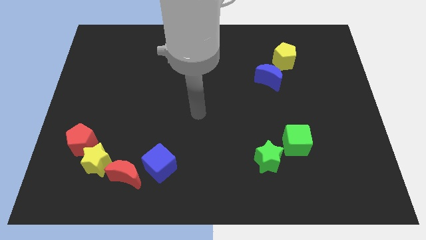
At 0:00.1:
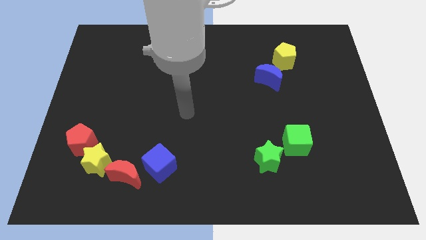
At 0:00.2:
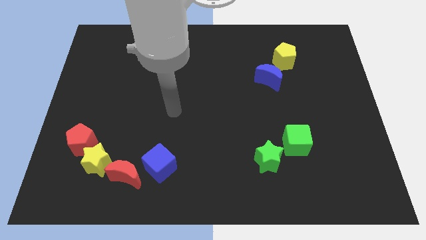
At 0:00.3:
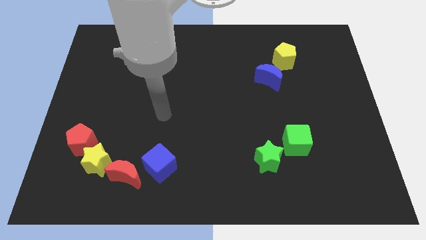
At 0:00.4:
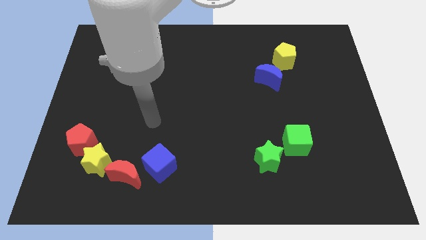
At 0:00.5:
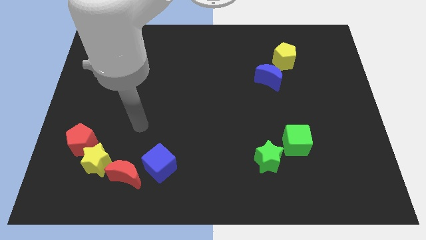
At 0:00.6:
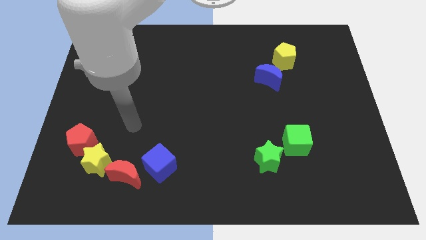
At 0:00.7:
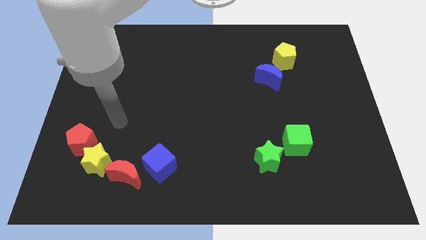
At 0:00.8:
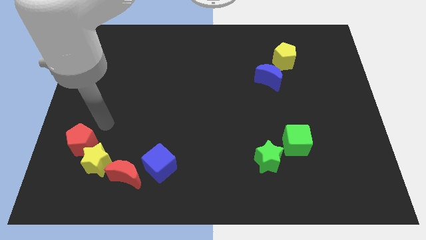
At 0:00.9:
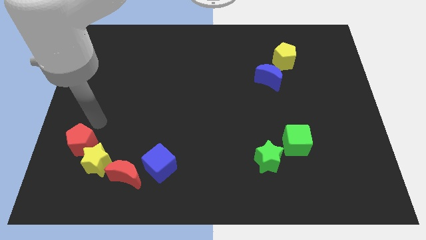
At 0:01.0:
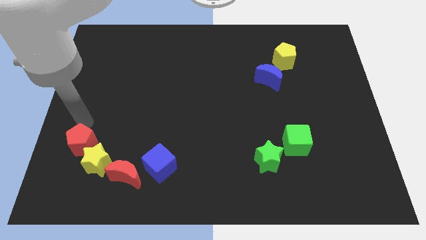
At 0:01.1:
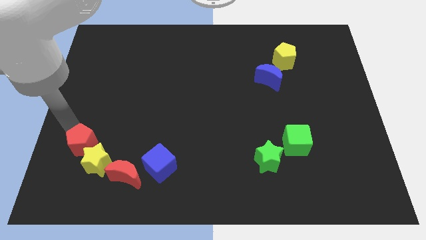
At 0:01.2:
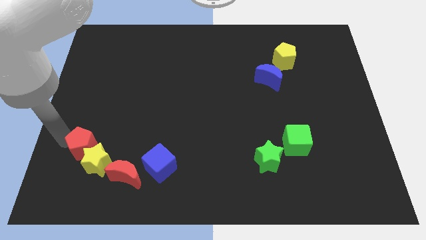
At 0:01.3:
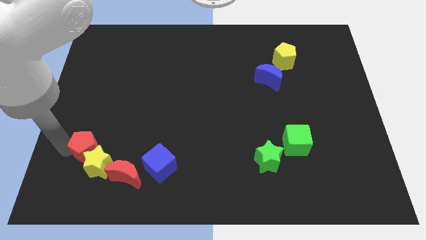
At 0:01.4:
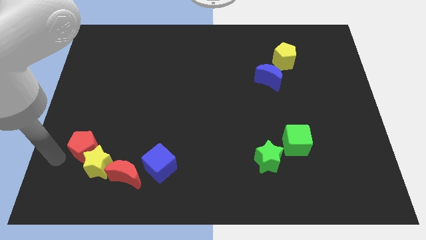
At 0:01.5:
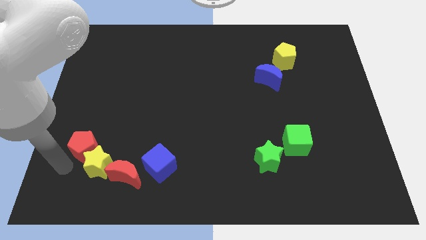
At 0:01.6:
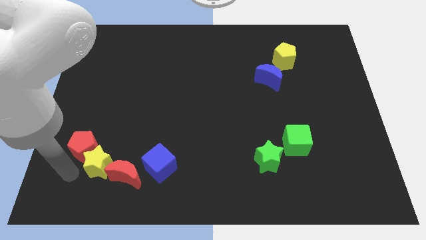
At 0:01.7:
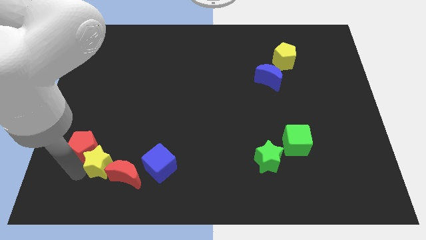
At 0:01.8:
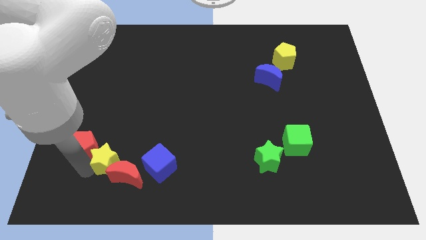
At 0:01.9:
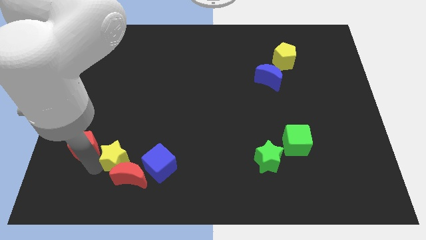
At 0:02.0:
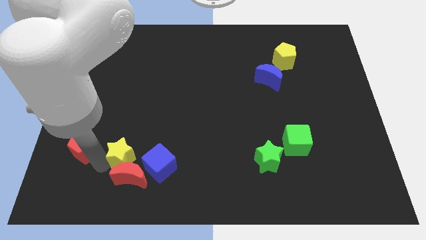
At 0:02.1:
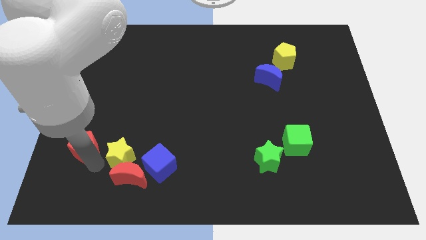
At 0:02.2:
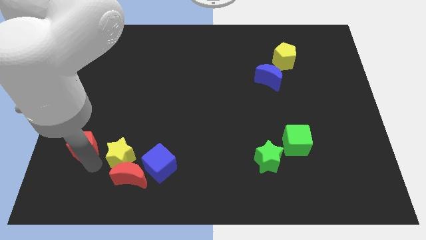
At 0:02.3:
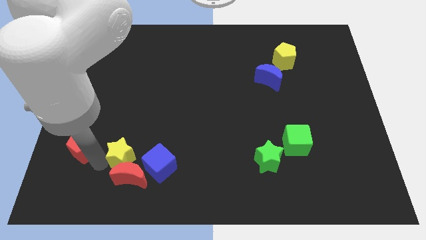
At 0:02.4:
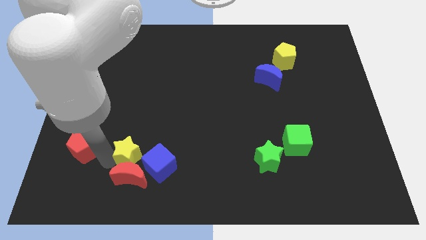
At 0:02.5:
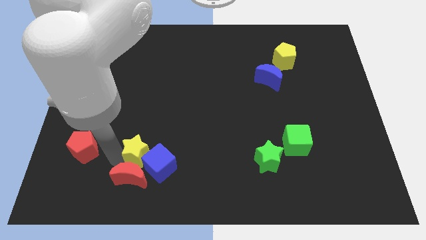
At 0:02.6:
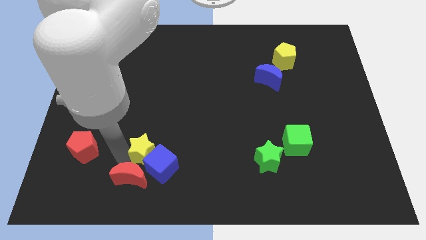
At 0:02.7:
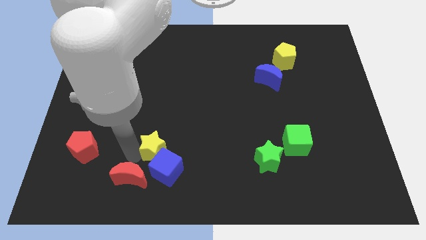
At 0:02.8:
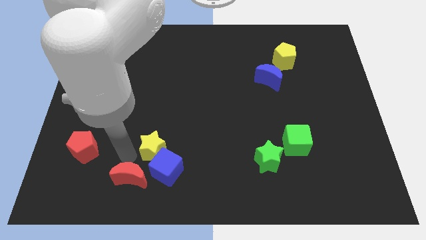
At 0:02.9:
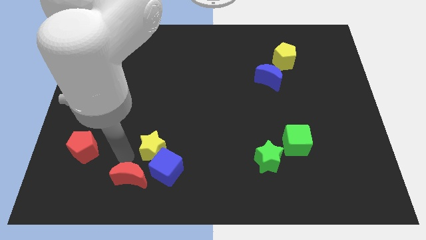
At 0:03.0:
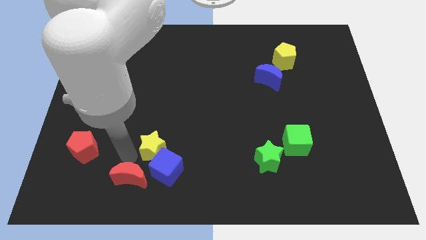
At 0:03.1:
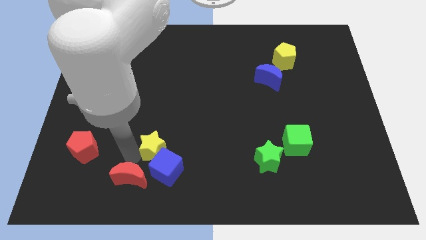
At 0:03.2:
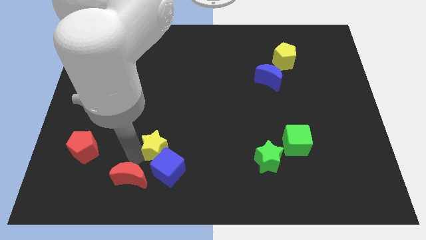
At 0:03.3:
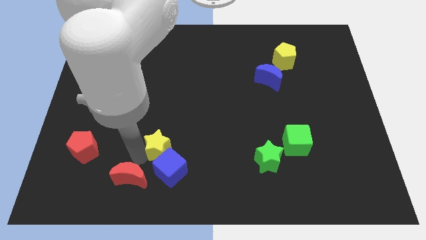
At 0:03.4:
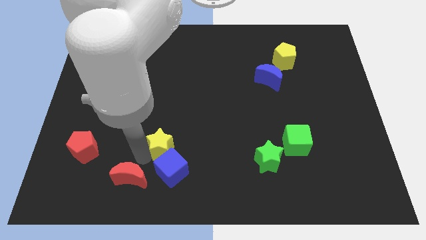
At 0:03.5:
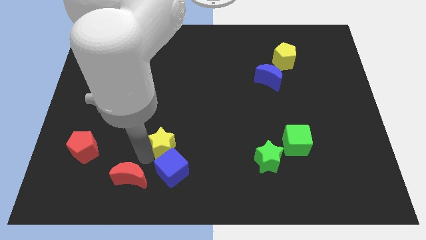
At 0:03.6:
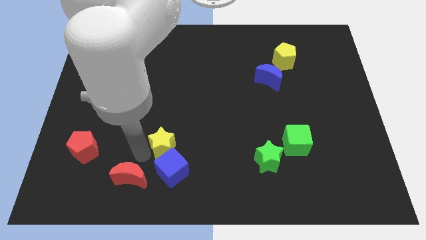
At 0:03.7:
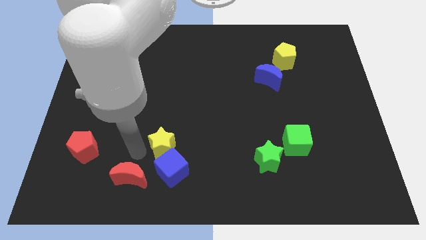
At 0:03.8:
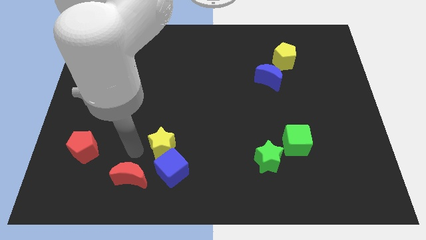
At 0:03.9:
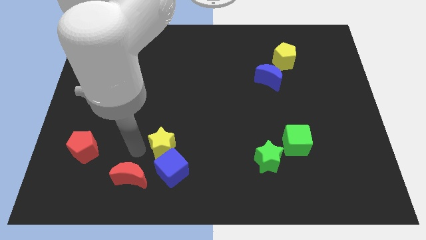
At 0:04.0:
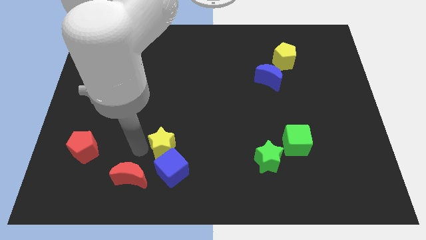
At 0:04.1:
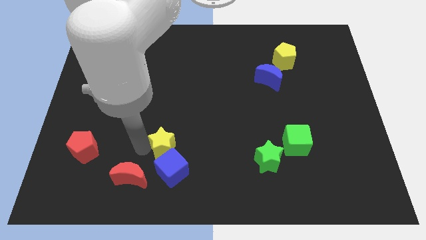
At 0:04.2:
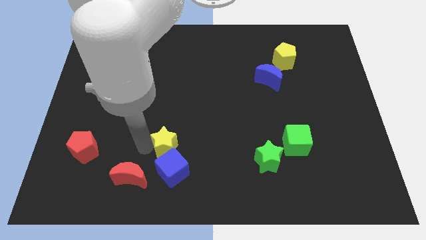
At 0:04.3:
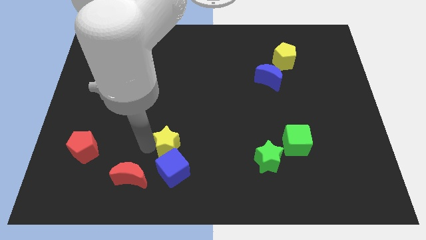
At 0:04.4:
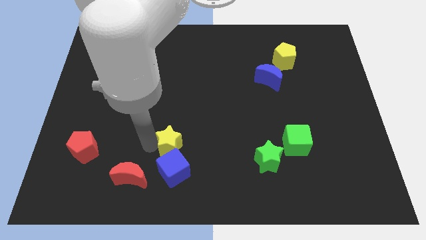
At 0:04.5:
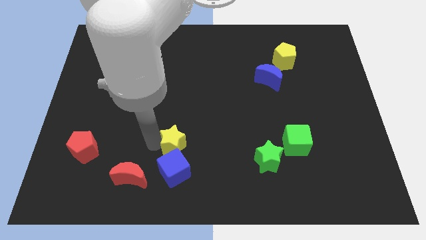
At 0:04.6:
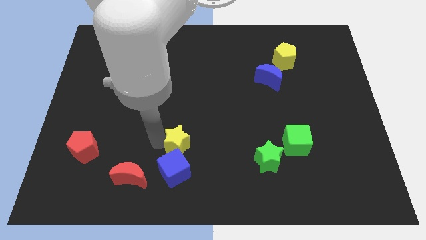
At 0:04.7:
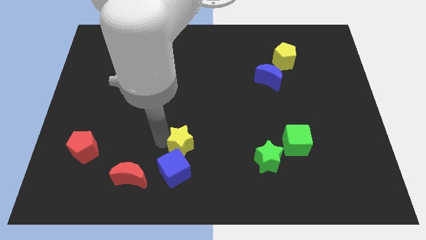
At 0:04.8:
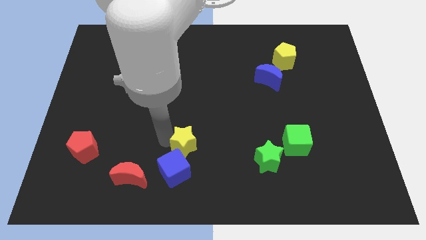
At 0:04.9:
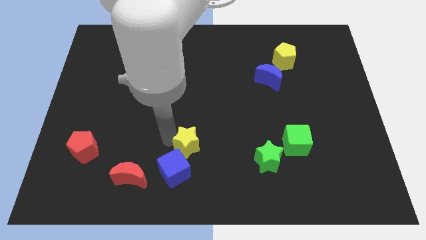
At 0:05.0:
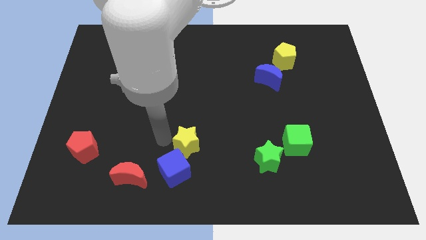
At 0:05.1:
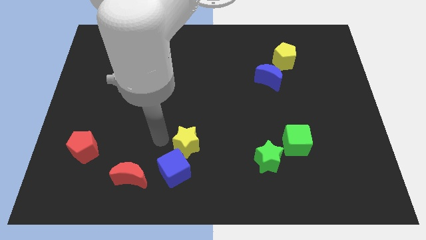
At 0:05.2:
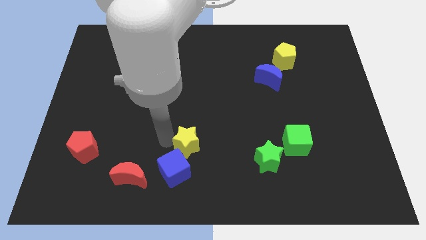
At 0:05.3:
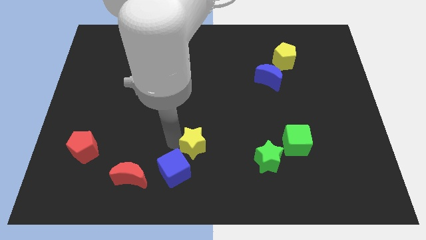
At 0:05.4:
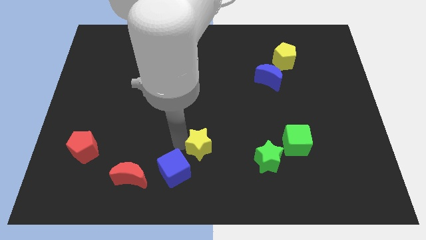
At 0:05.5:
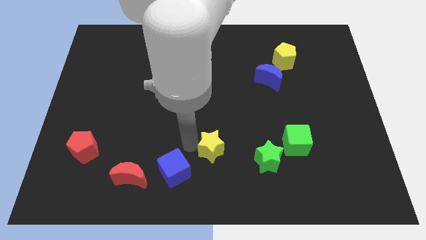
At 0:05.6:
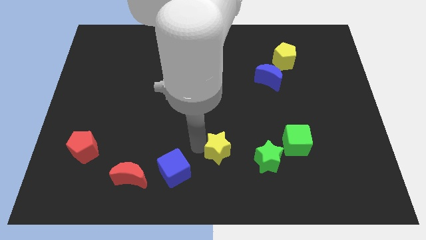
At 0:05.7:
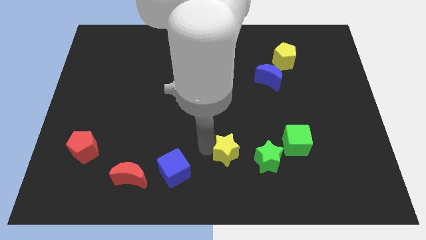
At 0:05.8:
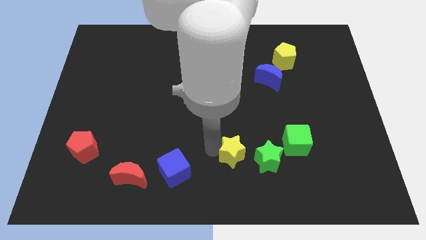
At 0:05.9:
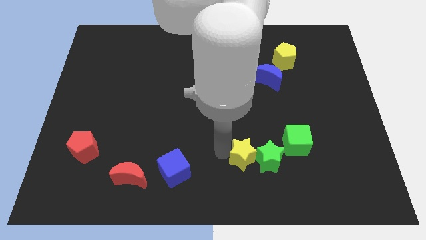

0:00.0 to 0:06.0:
slide the yellow star close to the green star

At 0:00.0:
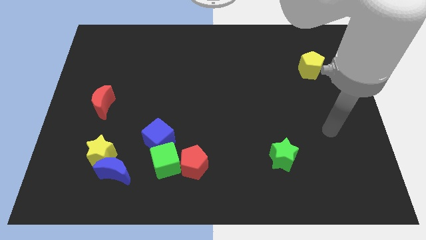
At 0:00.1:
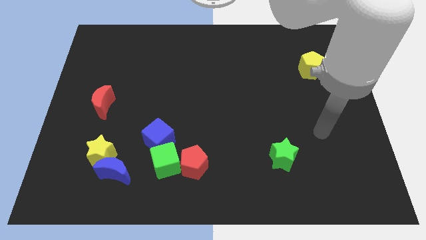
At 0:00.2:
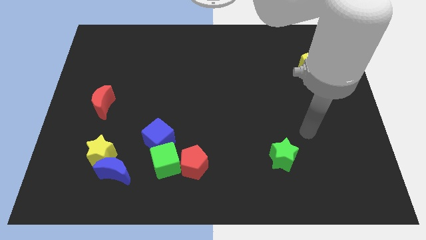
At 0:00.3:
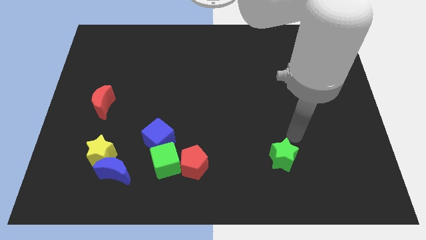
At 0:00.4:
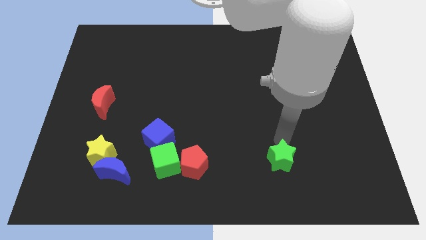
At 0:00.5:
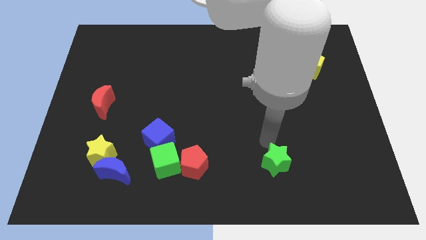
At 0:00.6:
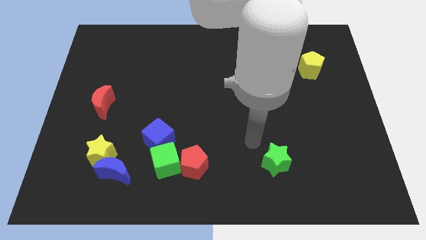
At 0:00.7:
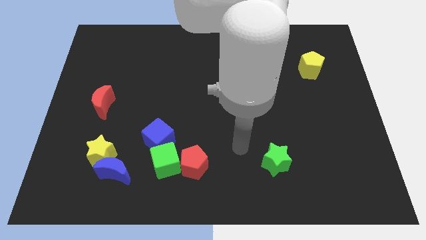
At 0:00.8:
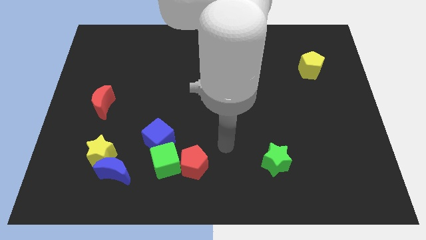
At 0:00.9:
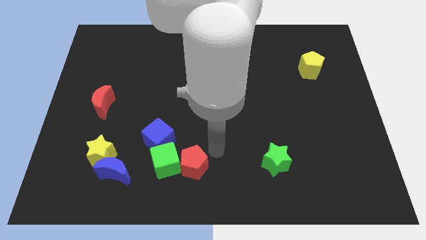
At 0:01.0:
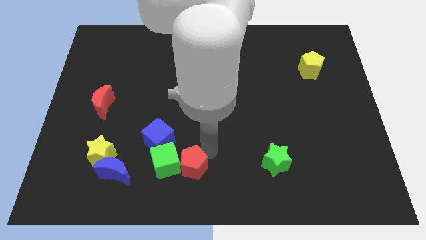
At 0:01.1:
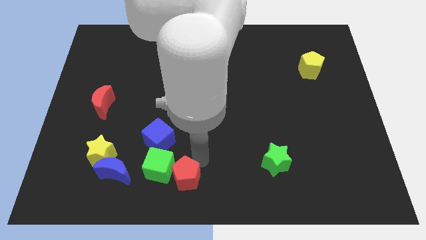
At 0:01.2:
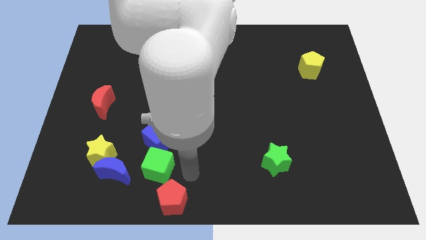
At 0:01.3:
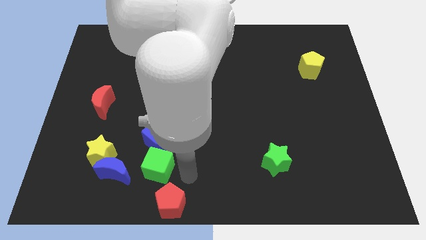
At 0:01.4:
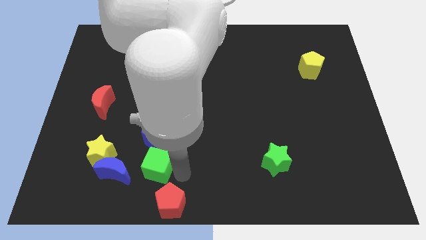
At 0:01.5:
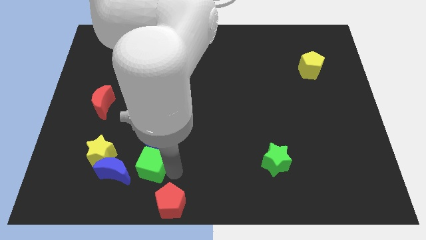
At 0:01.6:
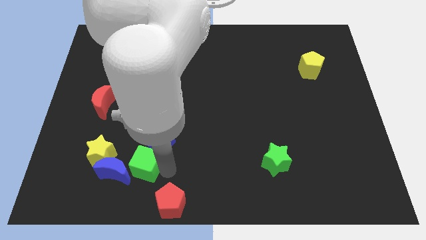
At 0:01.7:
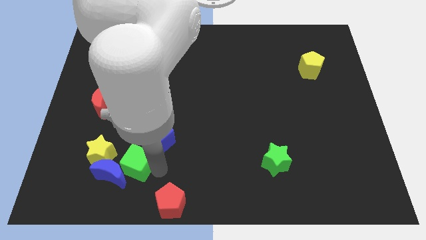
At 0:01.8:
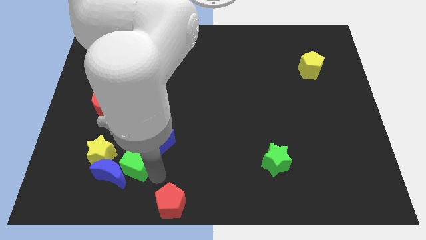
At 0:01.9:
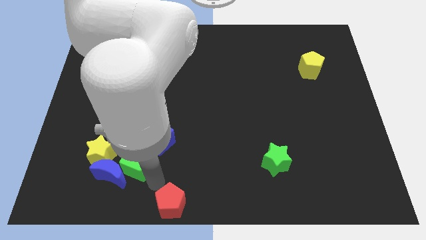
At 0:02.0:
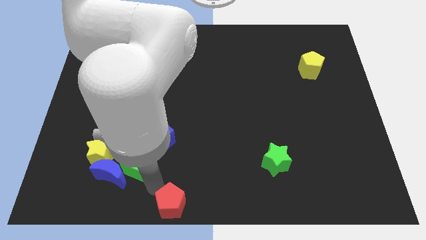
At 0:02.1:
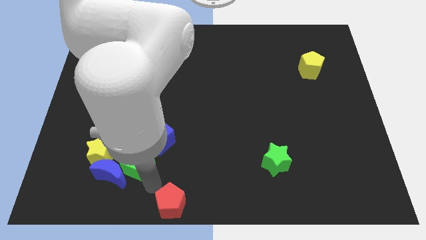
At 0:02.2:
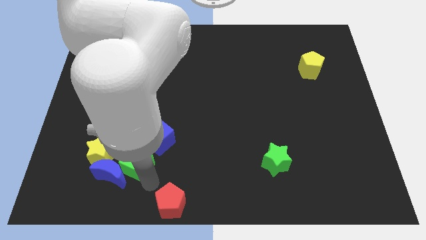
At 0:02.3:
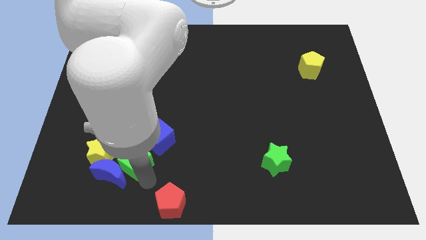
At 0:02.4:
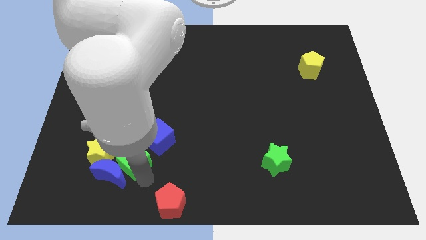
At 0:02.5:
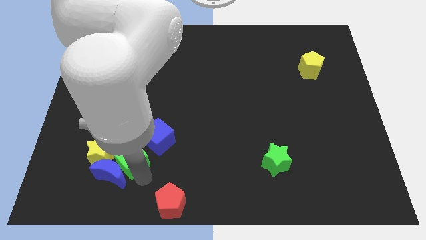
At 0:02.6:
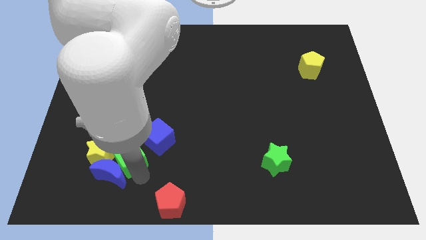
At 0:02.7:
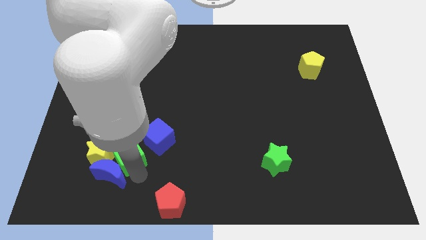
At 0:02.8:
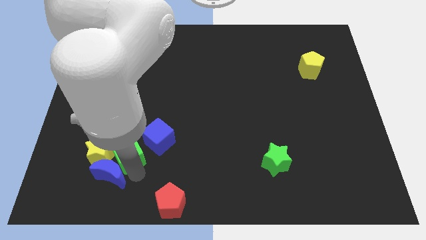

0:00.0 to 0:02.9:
put the green cube to the yellow star
